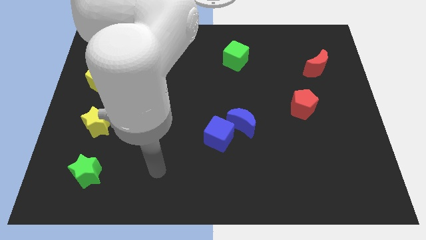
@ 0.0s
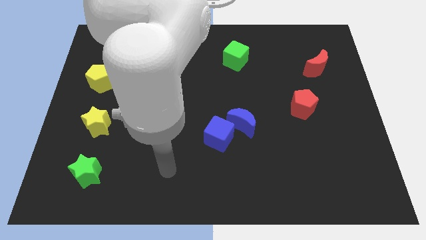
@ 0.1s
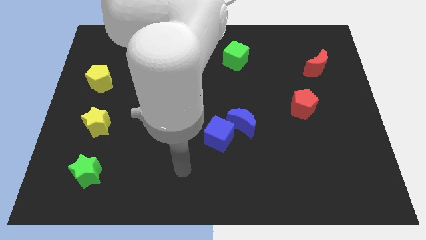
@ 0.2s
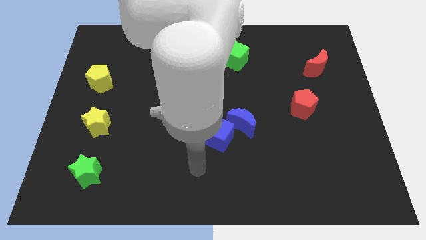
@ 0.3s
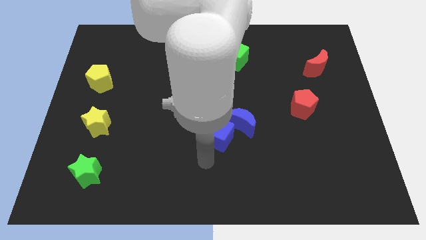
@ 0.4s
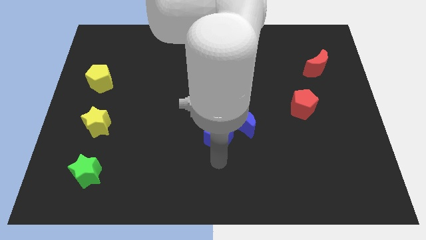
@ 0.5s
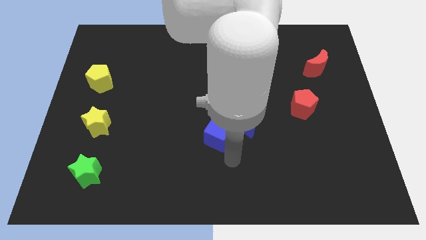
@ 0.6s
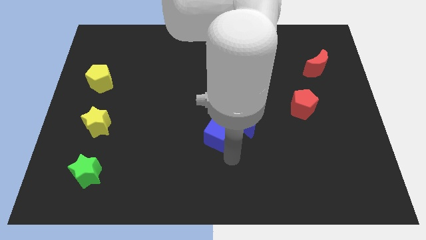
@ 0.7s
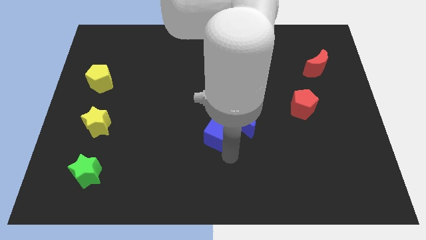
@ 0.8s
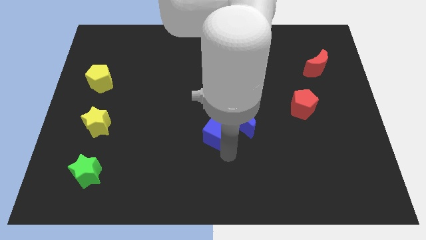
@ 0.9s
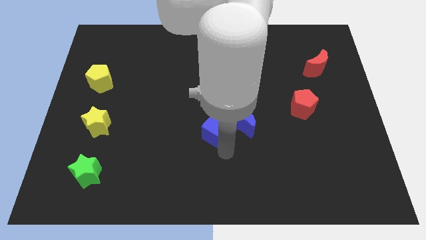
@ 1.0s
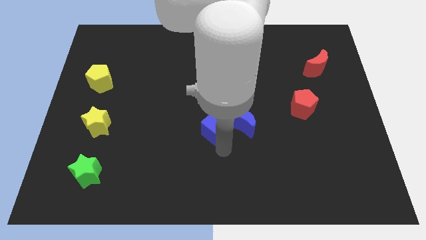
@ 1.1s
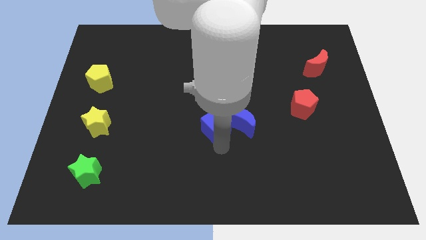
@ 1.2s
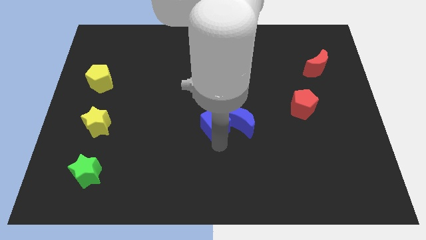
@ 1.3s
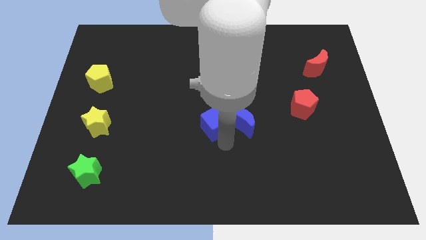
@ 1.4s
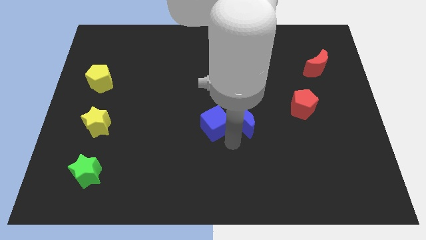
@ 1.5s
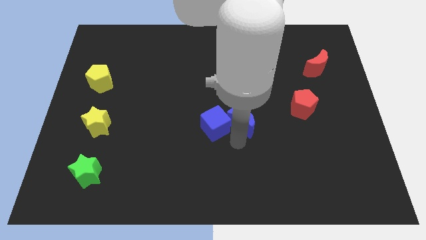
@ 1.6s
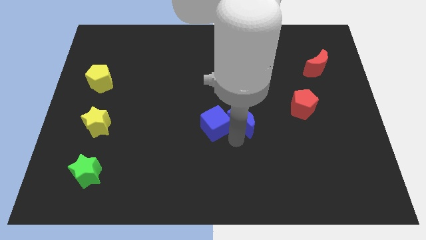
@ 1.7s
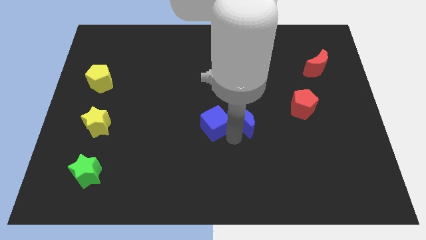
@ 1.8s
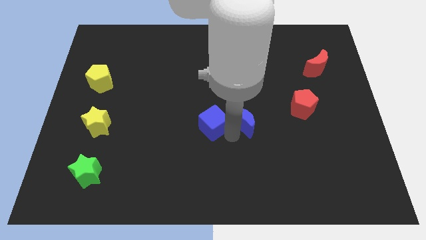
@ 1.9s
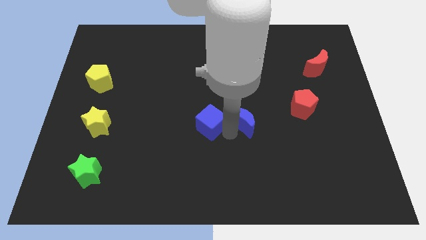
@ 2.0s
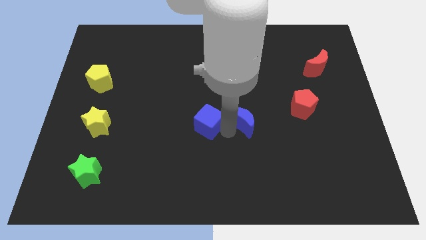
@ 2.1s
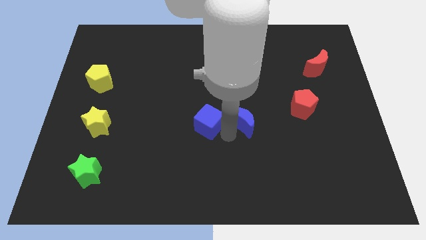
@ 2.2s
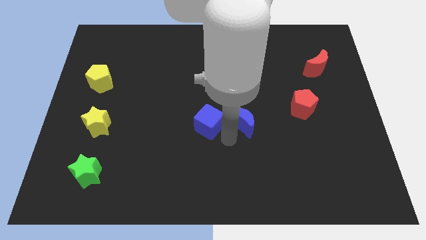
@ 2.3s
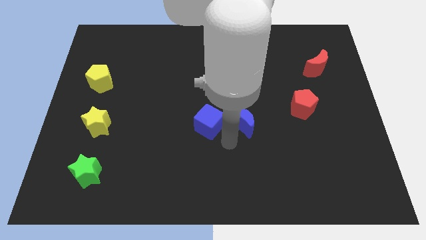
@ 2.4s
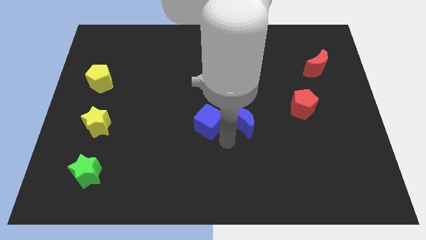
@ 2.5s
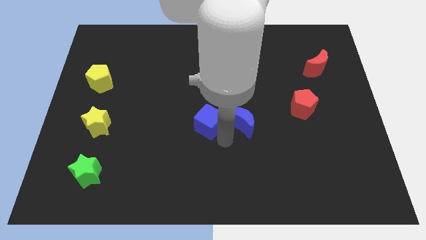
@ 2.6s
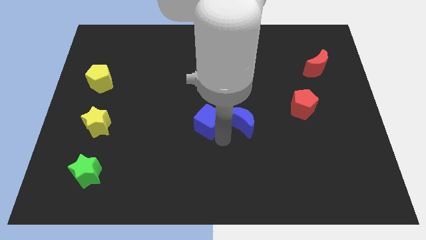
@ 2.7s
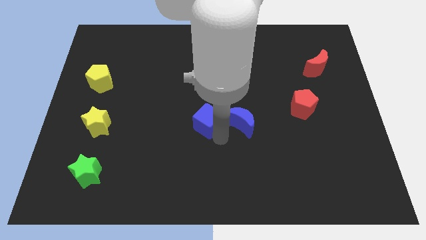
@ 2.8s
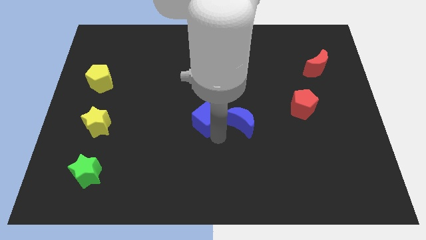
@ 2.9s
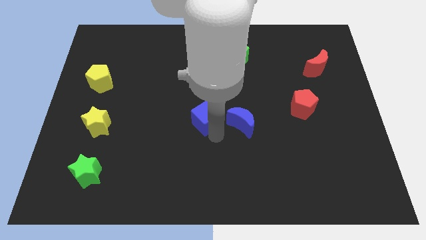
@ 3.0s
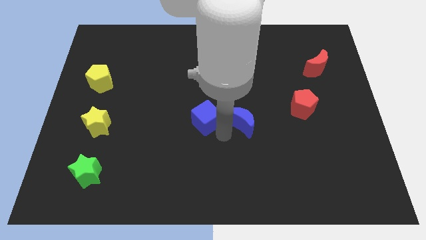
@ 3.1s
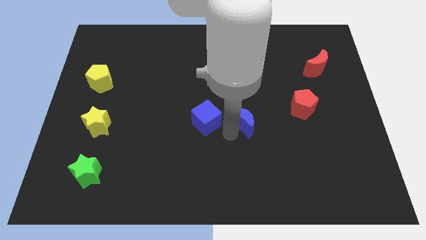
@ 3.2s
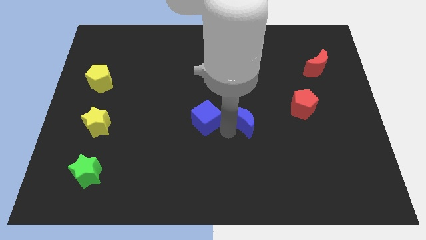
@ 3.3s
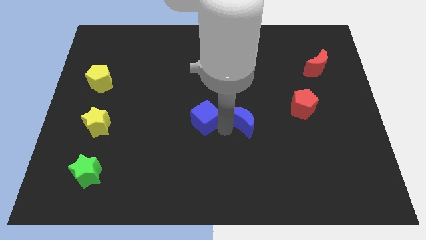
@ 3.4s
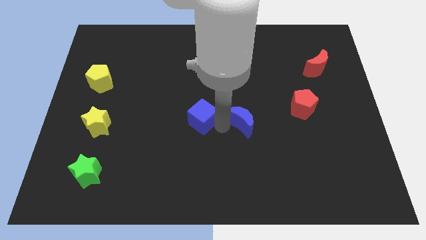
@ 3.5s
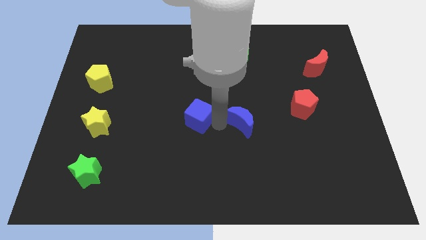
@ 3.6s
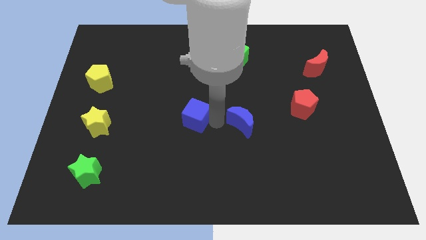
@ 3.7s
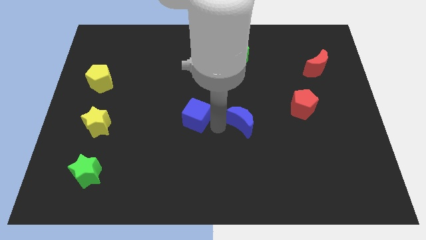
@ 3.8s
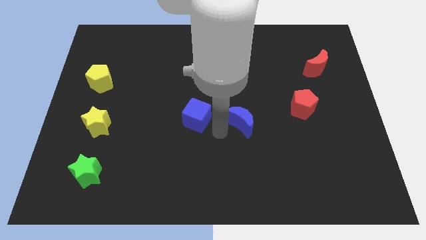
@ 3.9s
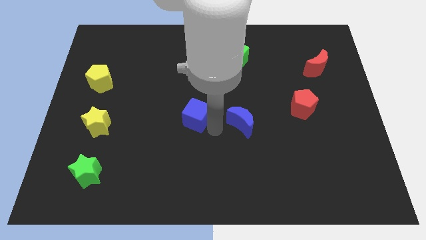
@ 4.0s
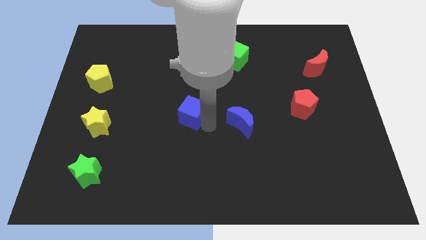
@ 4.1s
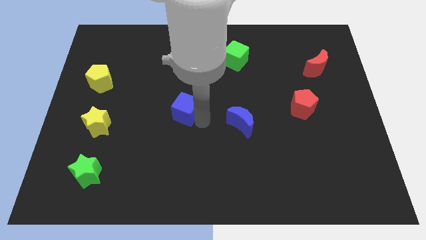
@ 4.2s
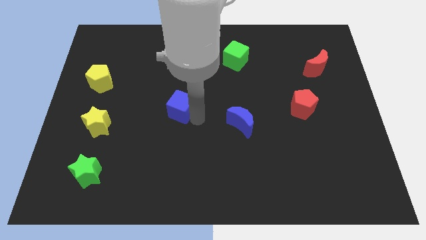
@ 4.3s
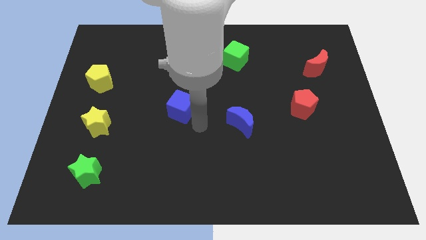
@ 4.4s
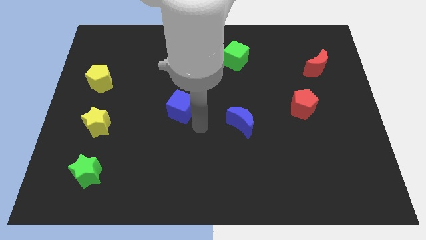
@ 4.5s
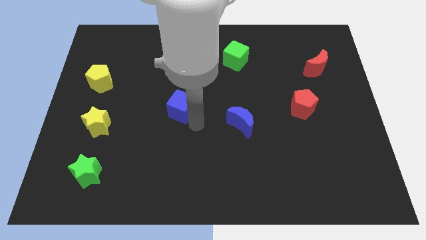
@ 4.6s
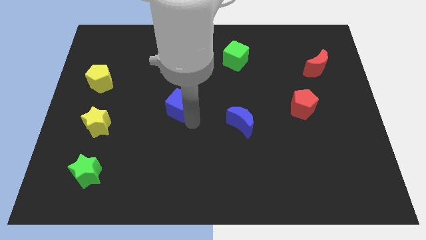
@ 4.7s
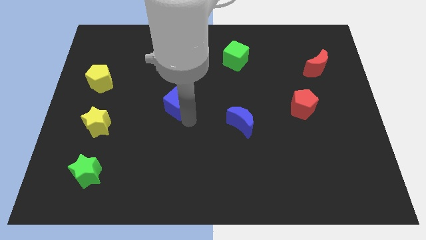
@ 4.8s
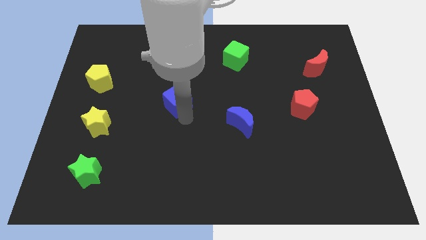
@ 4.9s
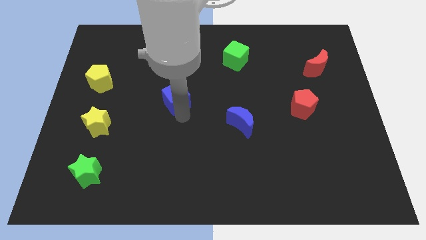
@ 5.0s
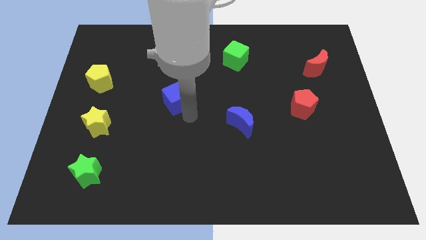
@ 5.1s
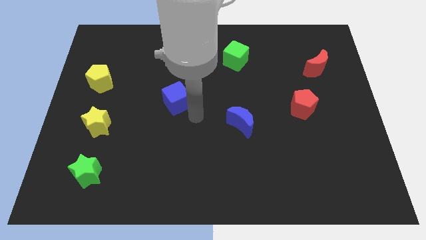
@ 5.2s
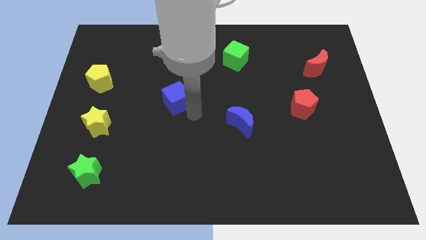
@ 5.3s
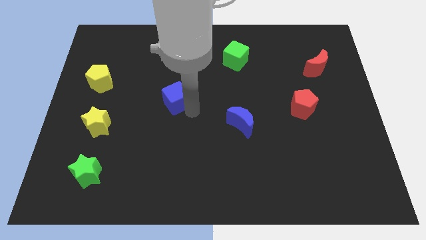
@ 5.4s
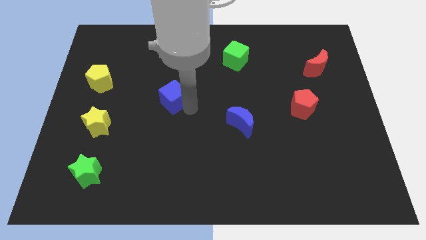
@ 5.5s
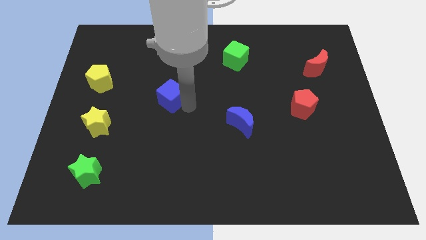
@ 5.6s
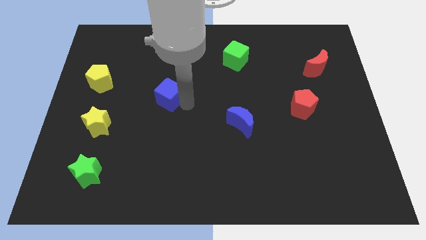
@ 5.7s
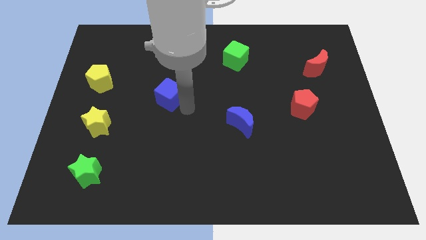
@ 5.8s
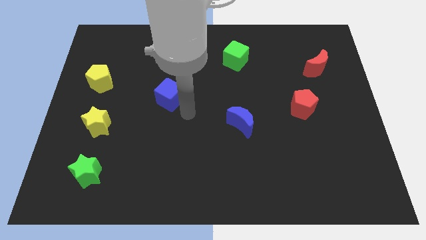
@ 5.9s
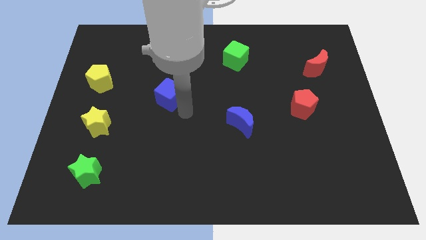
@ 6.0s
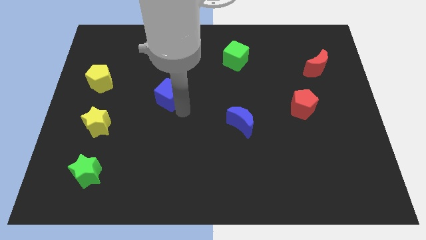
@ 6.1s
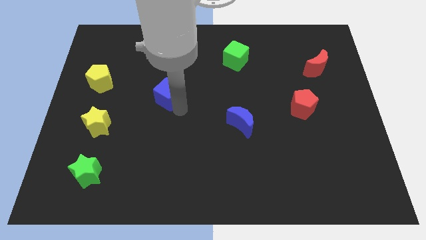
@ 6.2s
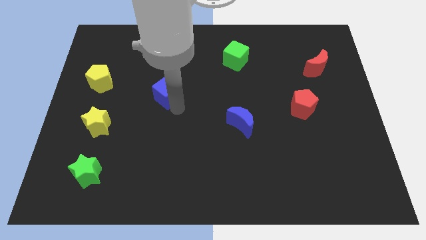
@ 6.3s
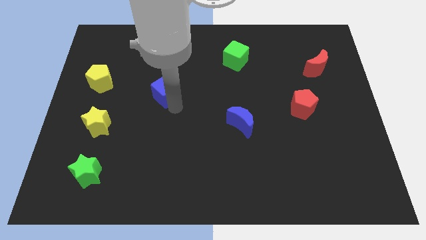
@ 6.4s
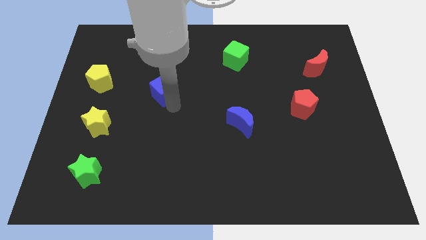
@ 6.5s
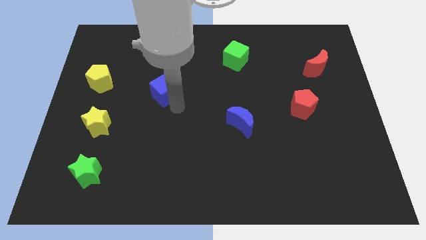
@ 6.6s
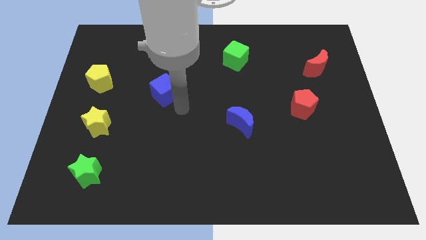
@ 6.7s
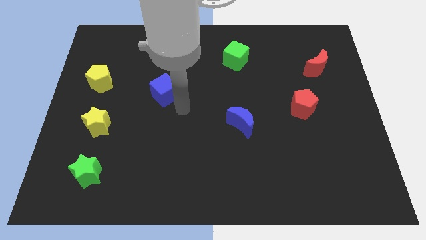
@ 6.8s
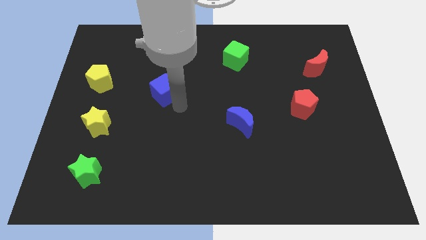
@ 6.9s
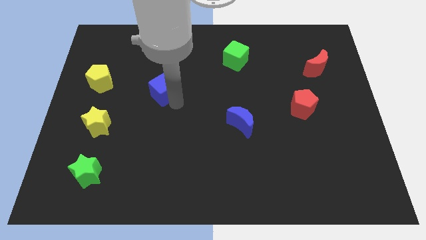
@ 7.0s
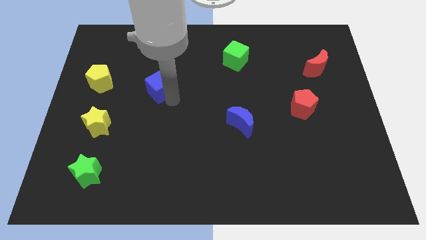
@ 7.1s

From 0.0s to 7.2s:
slide the blue cube upwards and then to the left

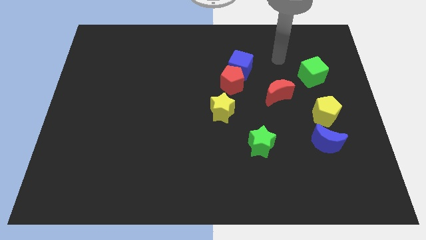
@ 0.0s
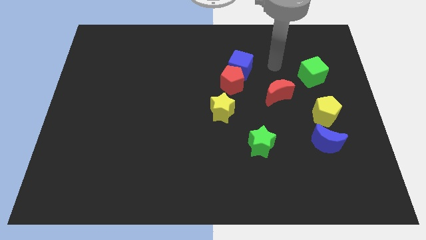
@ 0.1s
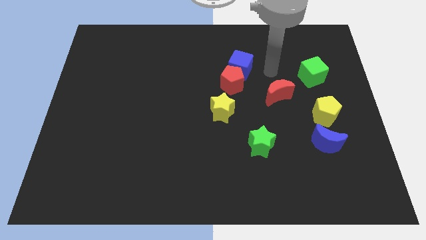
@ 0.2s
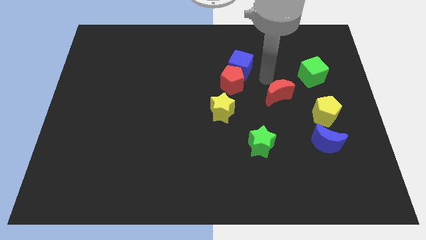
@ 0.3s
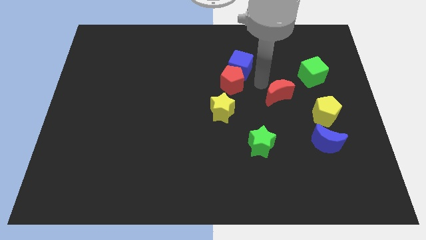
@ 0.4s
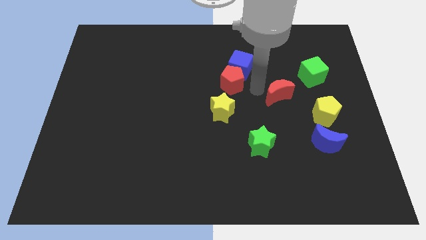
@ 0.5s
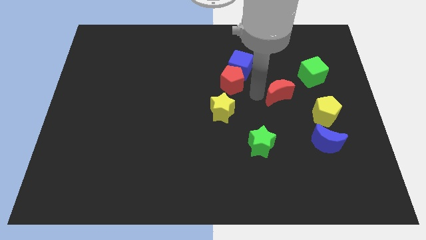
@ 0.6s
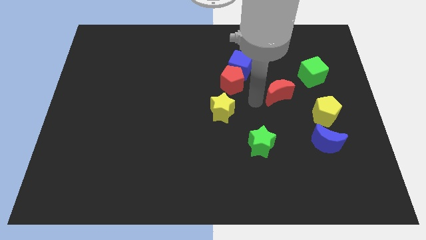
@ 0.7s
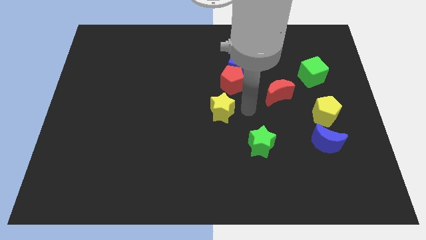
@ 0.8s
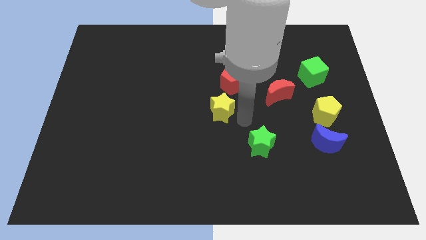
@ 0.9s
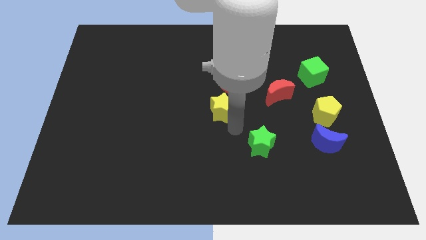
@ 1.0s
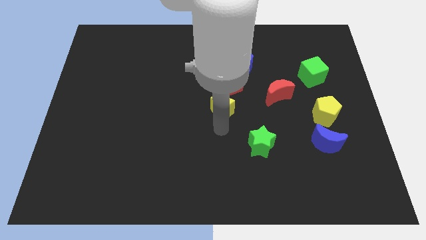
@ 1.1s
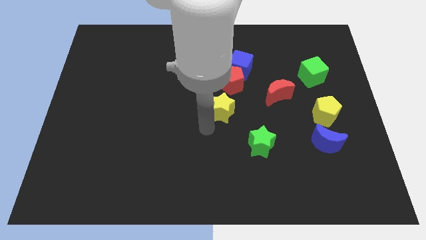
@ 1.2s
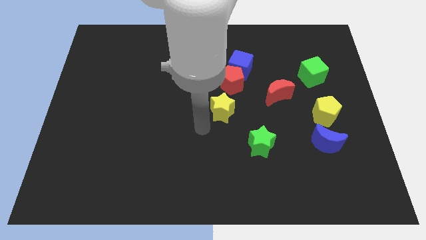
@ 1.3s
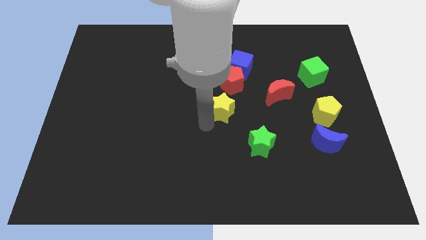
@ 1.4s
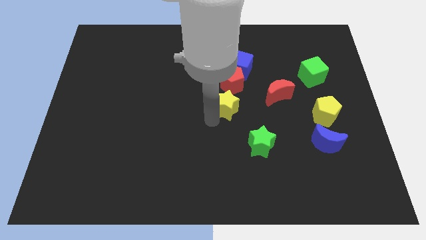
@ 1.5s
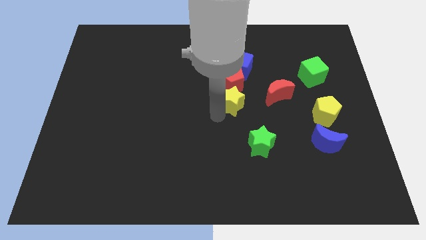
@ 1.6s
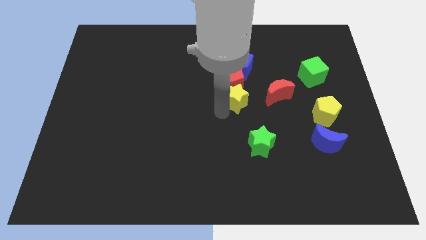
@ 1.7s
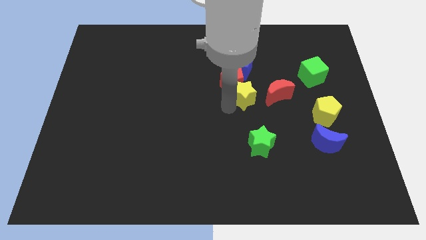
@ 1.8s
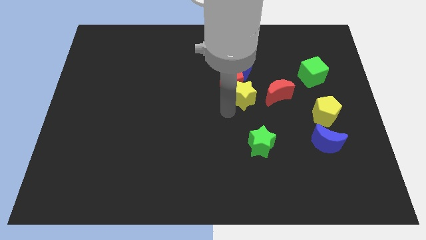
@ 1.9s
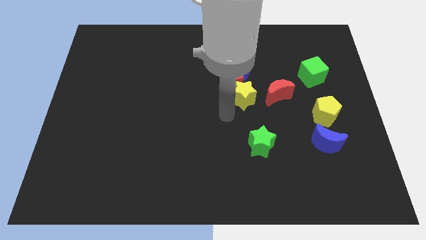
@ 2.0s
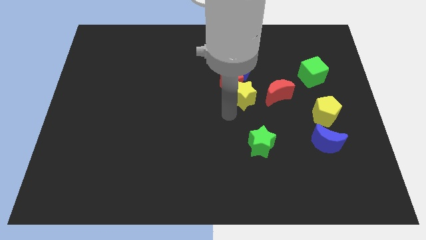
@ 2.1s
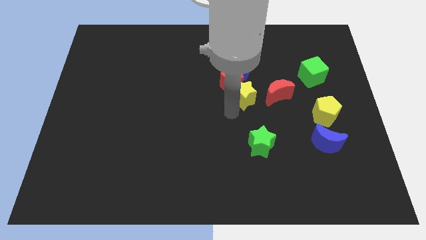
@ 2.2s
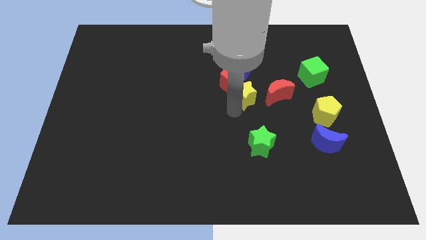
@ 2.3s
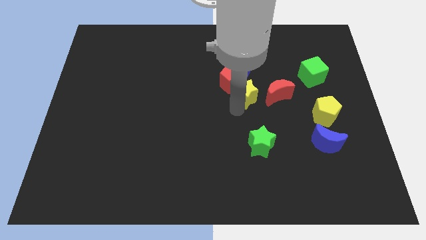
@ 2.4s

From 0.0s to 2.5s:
slide the yellow star diagonally upwards and right a bit
